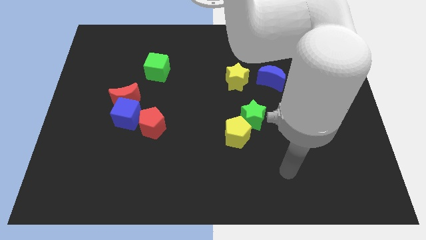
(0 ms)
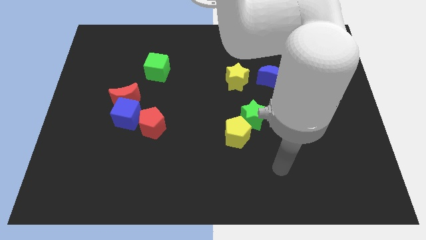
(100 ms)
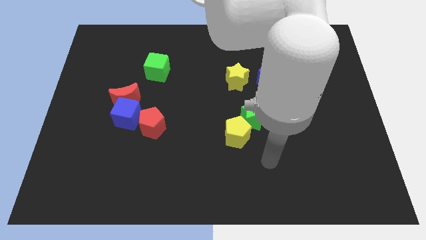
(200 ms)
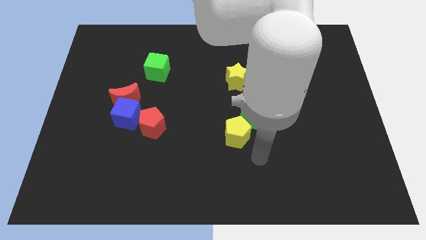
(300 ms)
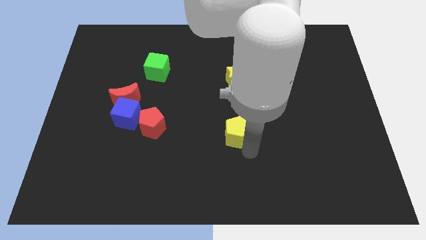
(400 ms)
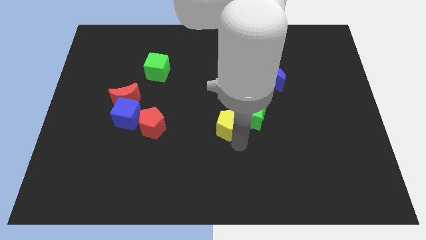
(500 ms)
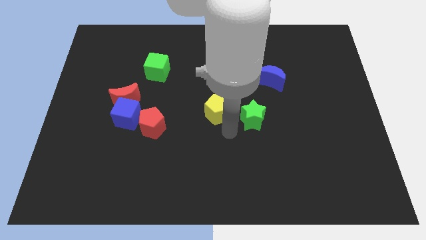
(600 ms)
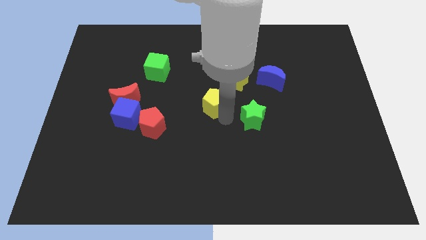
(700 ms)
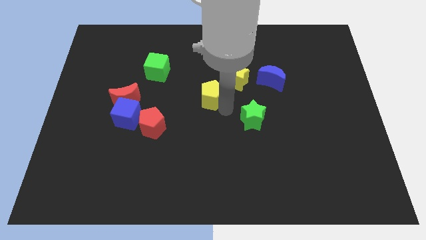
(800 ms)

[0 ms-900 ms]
move the green star away from the yellow pentagon

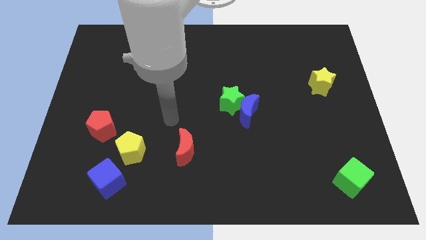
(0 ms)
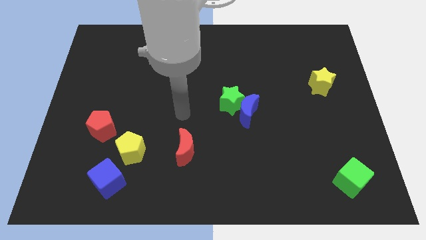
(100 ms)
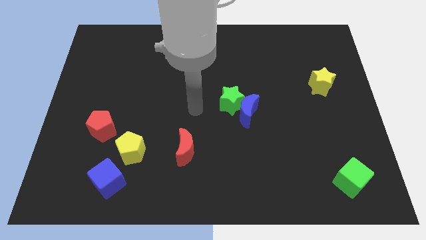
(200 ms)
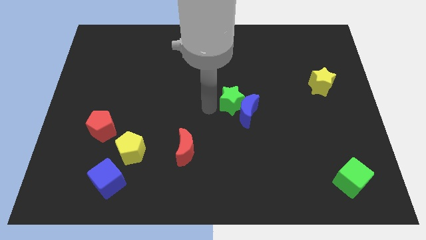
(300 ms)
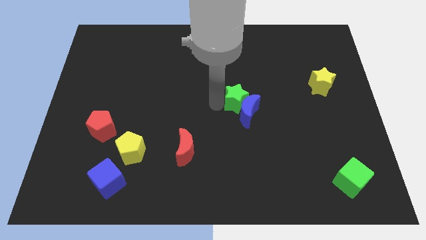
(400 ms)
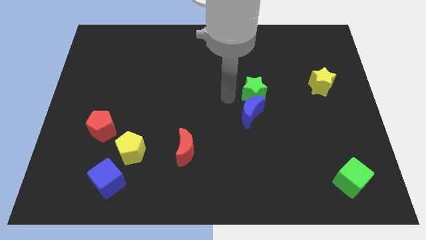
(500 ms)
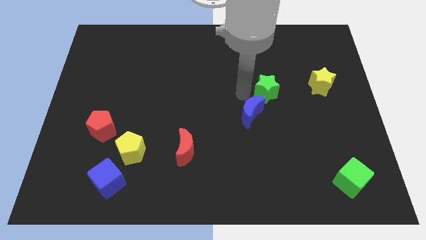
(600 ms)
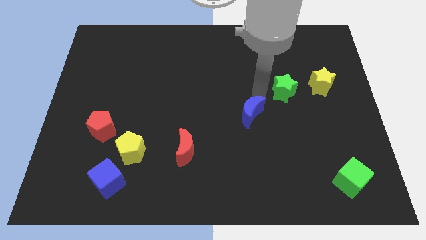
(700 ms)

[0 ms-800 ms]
separate the blue moon from the green star

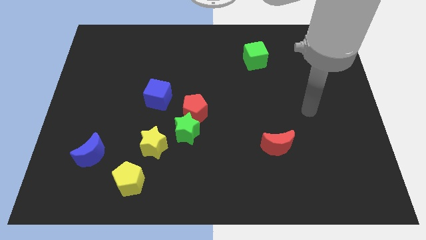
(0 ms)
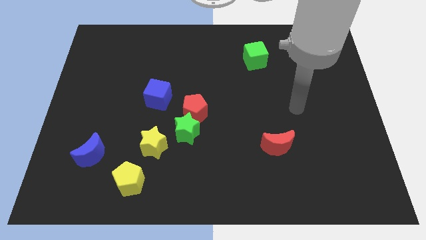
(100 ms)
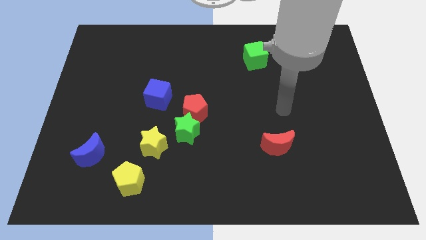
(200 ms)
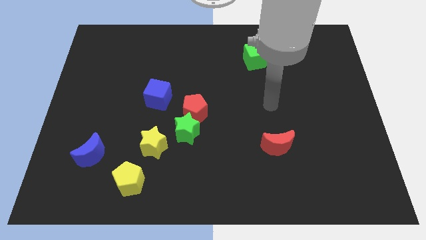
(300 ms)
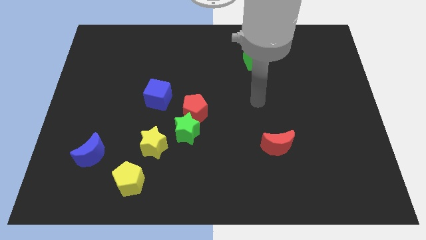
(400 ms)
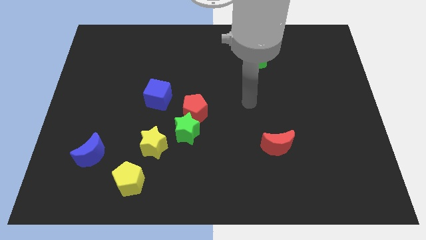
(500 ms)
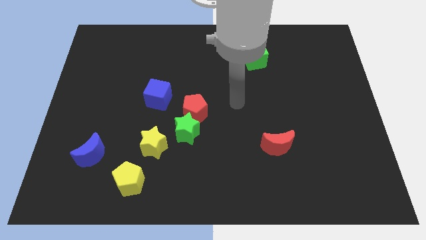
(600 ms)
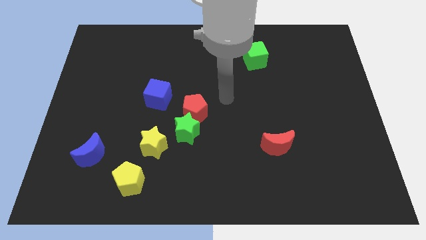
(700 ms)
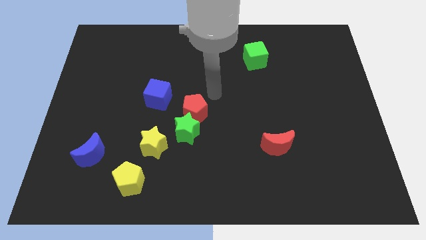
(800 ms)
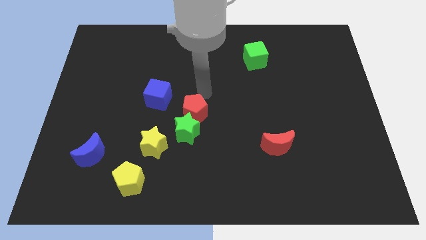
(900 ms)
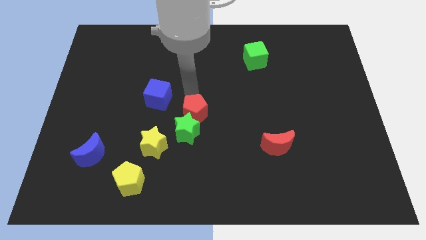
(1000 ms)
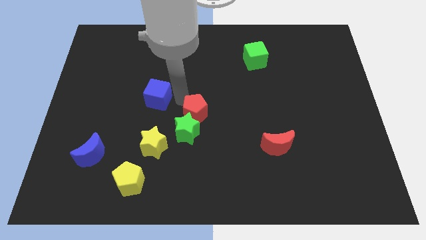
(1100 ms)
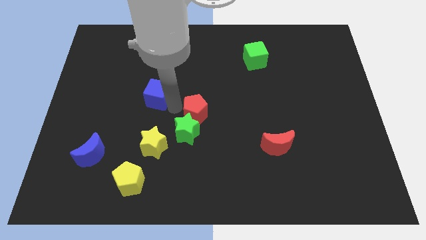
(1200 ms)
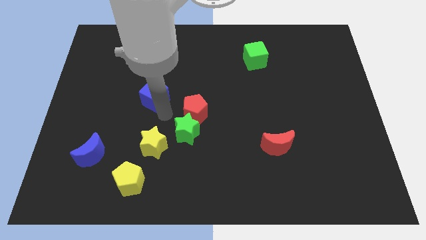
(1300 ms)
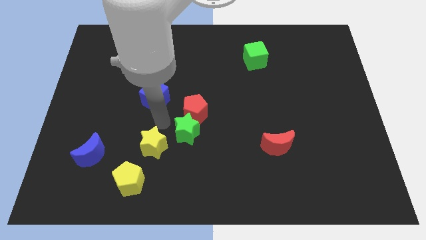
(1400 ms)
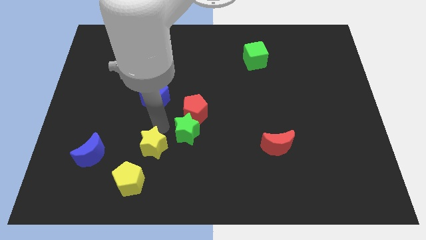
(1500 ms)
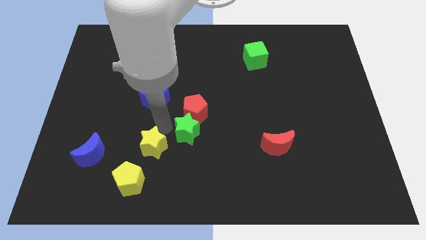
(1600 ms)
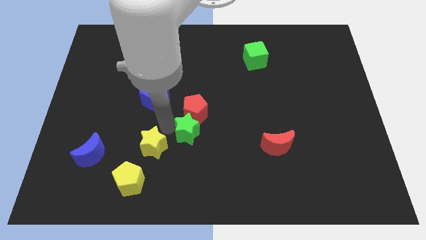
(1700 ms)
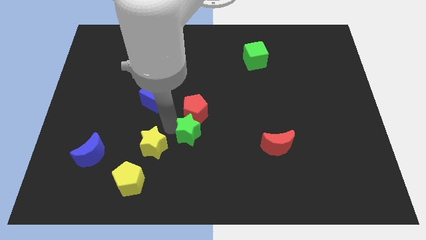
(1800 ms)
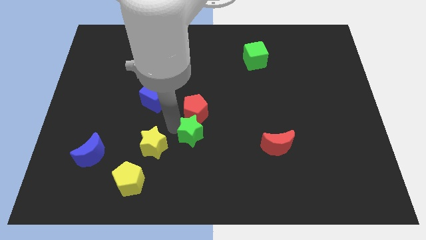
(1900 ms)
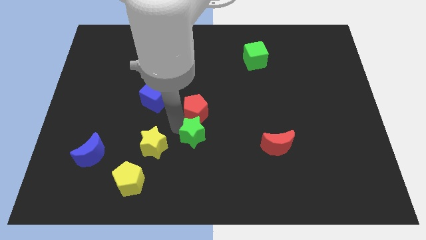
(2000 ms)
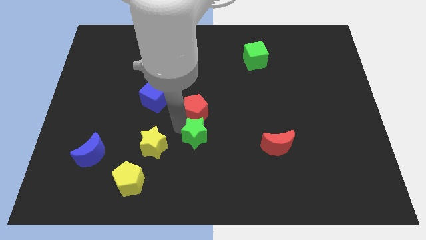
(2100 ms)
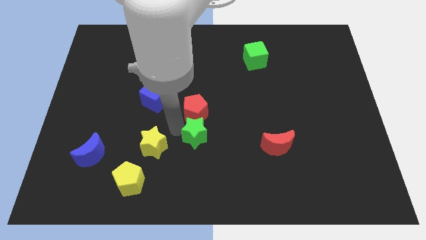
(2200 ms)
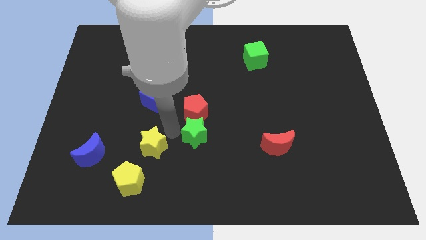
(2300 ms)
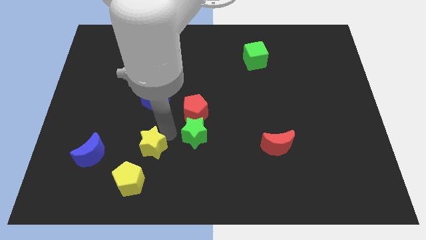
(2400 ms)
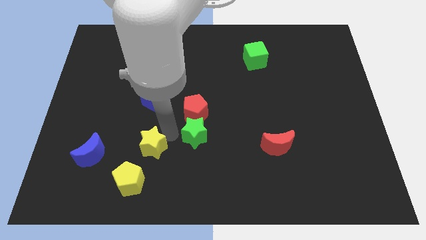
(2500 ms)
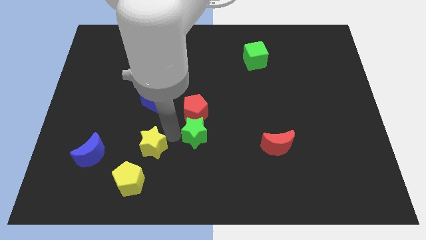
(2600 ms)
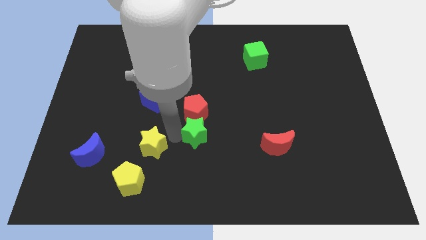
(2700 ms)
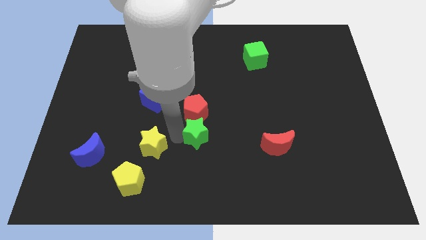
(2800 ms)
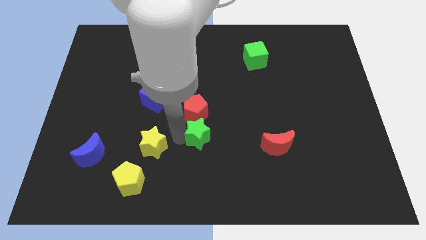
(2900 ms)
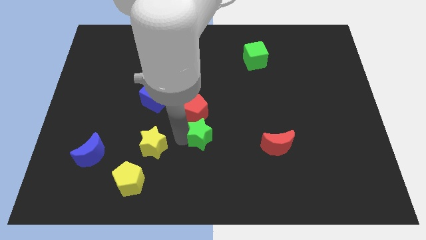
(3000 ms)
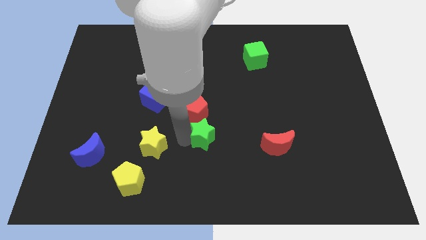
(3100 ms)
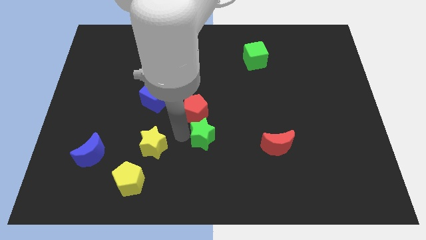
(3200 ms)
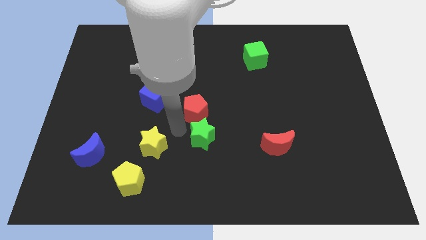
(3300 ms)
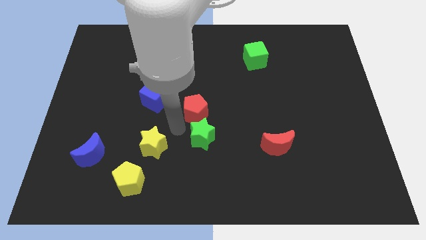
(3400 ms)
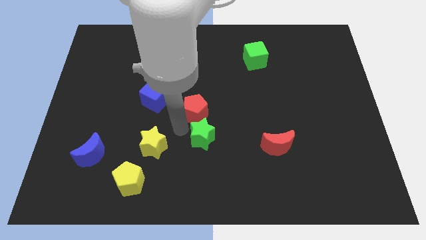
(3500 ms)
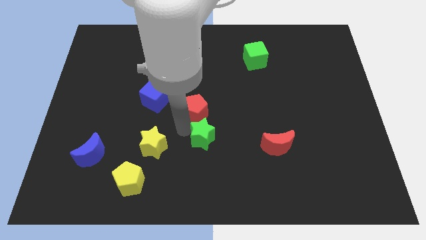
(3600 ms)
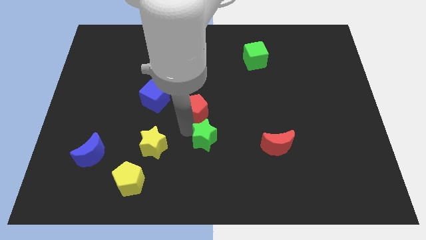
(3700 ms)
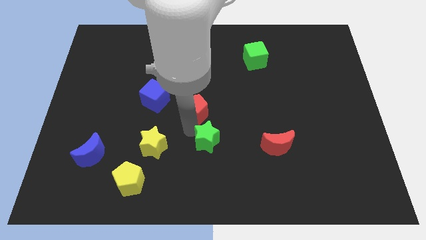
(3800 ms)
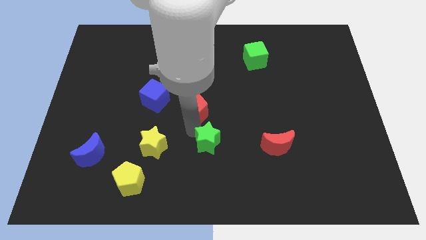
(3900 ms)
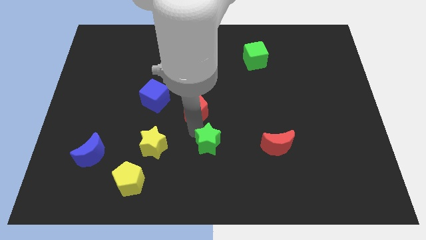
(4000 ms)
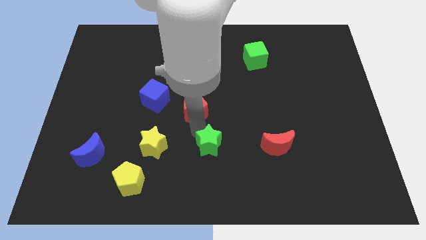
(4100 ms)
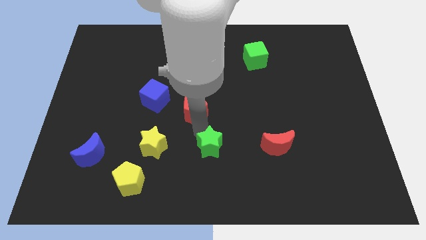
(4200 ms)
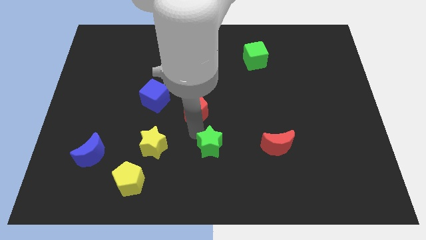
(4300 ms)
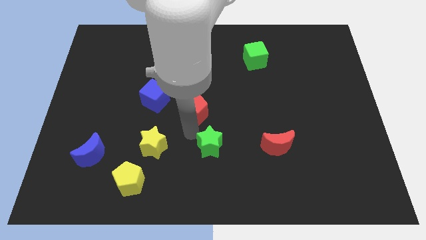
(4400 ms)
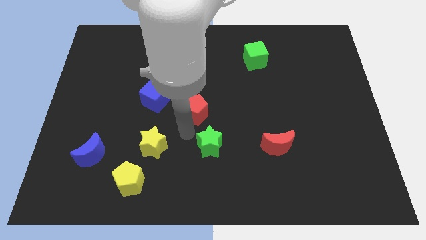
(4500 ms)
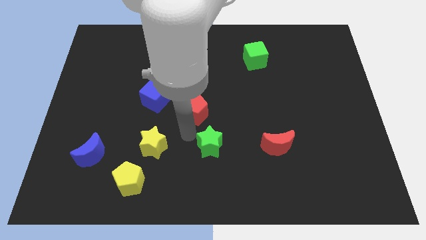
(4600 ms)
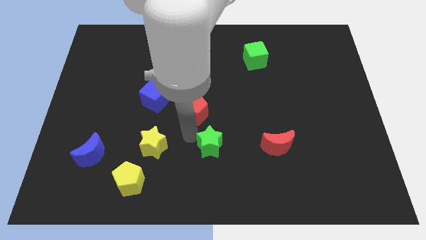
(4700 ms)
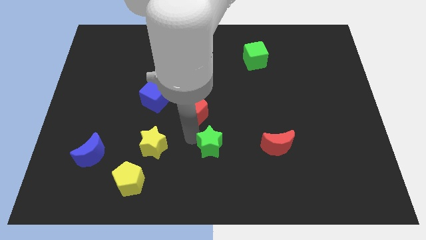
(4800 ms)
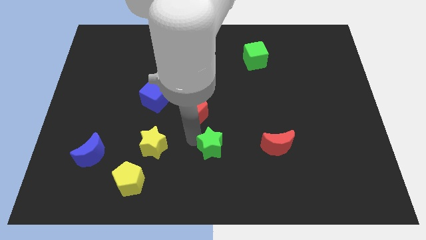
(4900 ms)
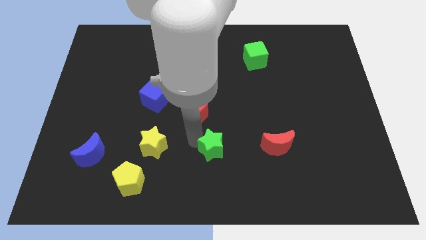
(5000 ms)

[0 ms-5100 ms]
separate the green star from the red pentagon and yellow star

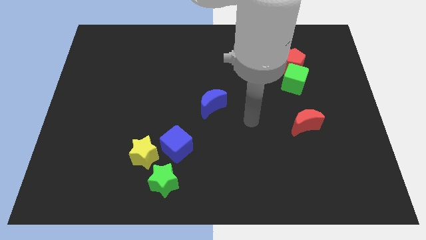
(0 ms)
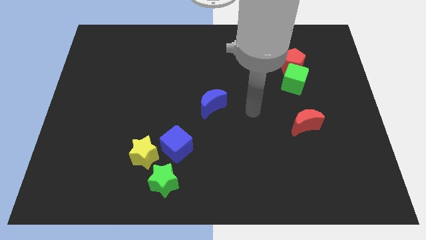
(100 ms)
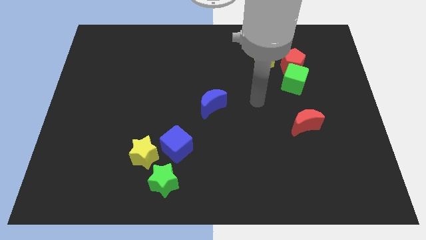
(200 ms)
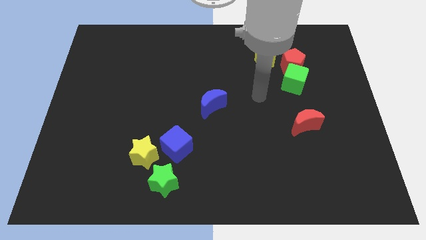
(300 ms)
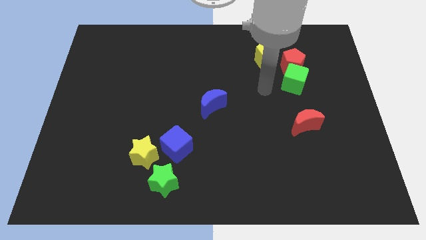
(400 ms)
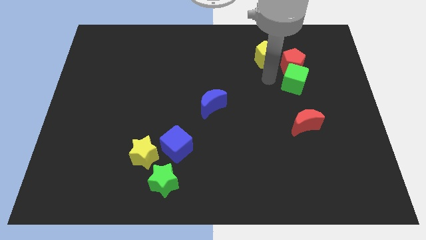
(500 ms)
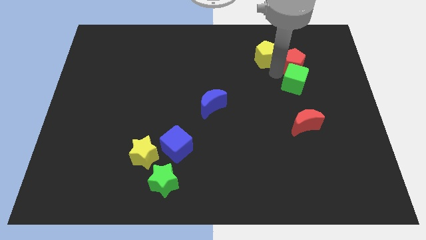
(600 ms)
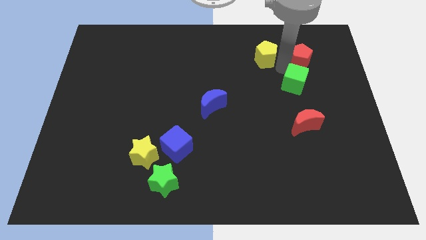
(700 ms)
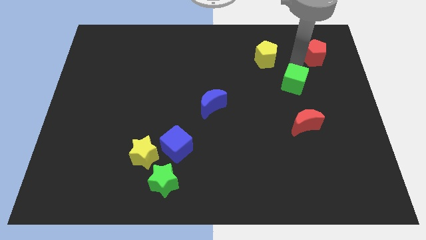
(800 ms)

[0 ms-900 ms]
move the green cube away from the red pentagon

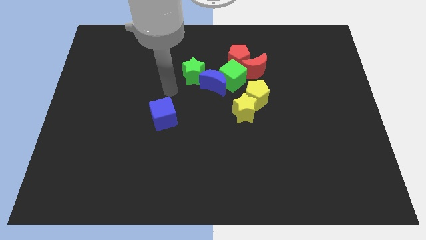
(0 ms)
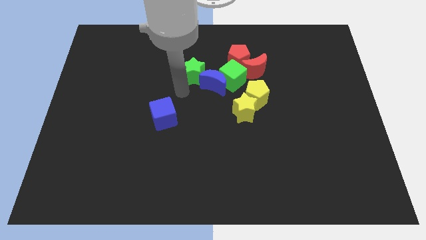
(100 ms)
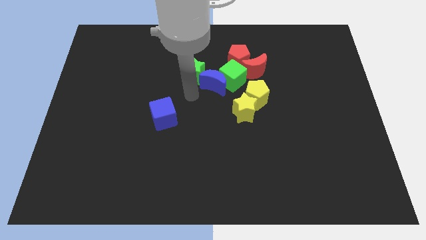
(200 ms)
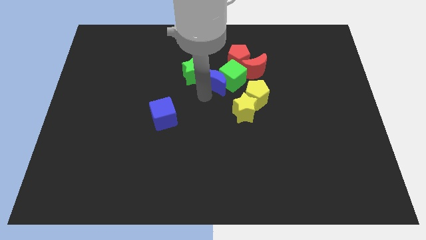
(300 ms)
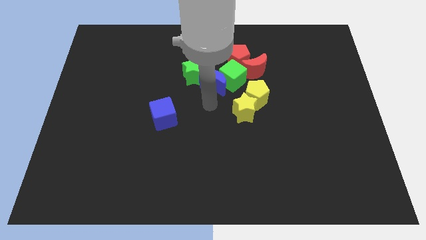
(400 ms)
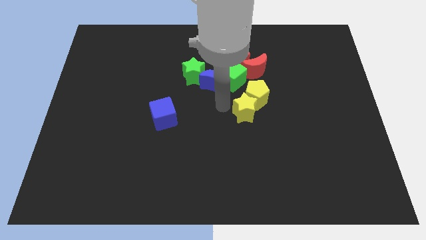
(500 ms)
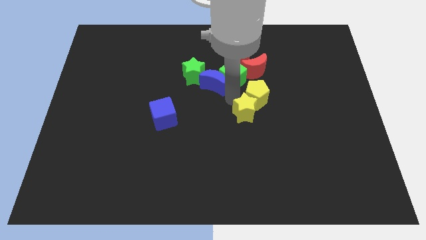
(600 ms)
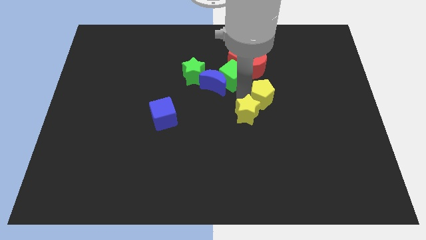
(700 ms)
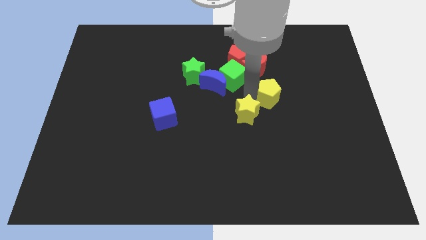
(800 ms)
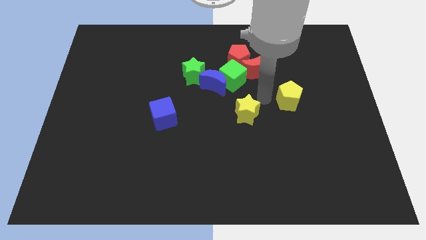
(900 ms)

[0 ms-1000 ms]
separate the yellow star from the yellow pentagon

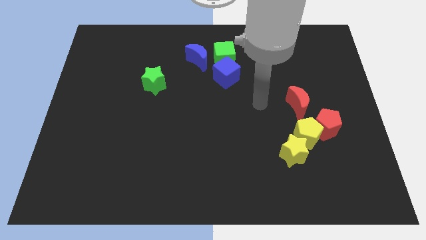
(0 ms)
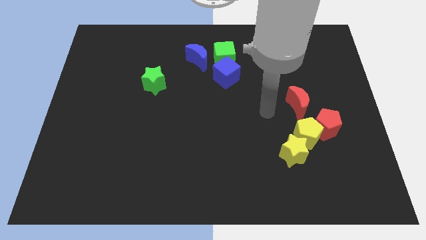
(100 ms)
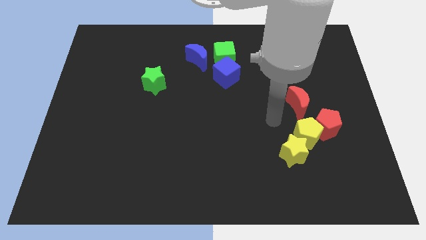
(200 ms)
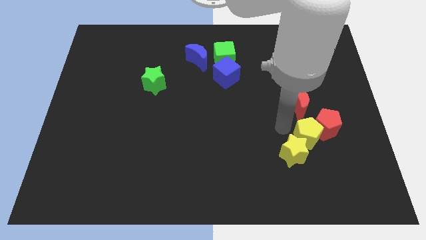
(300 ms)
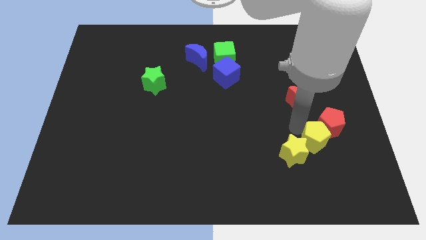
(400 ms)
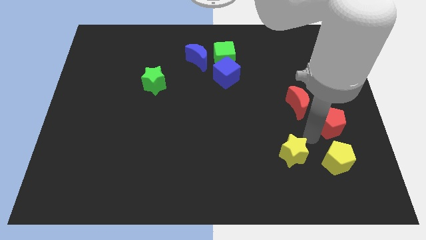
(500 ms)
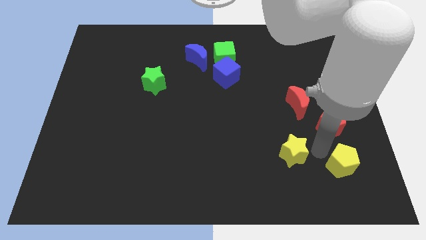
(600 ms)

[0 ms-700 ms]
move the yellow star away from the yellow pentagon

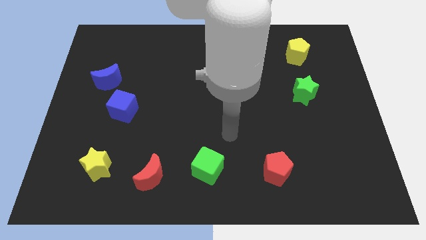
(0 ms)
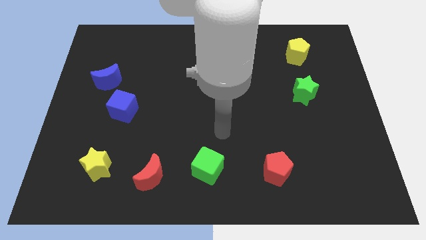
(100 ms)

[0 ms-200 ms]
separate the blue moon from the blue cube
